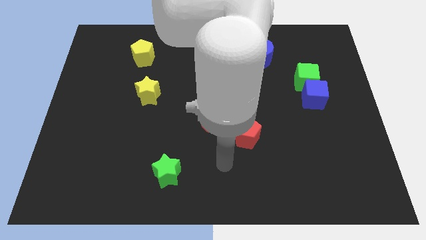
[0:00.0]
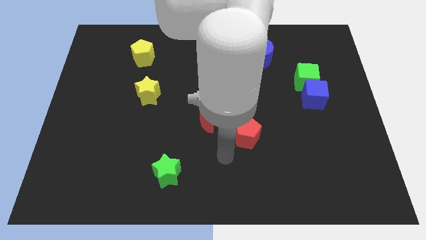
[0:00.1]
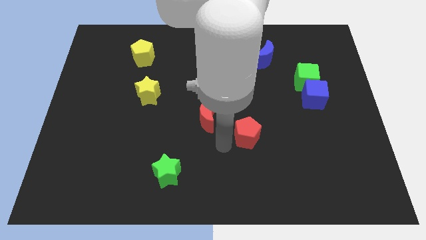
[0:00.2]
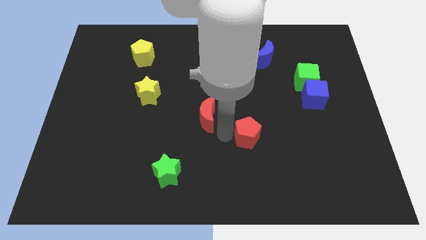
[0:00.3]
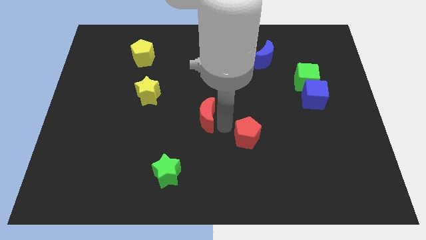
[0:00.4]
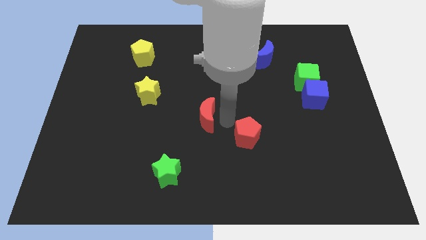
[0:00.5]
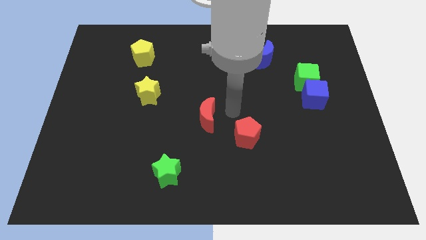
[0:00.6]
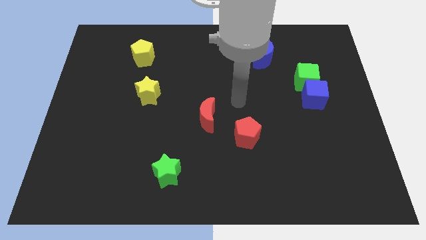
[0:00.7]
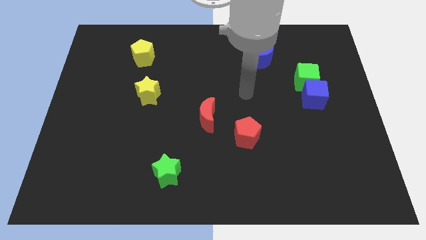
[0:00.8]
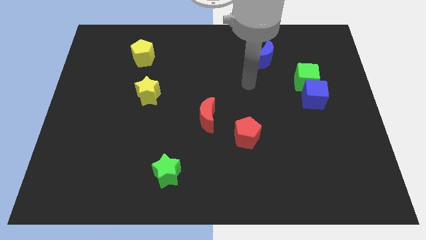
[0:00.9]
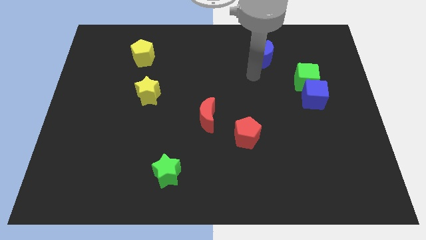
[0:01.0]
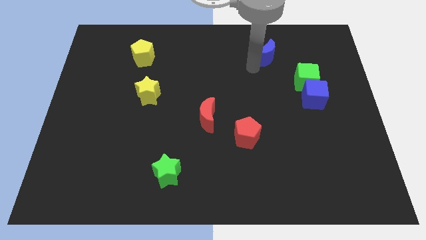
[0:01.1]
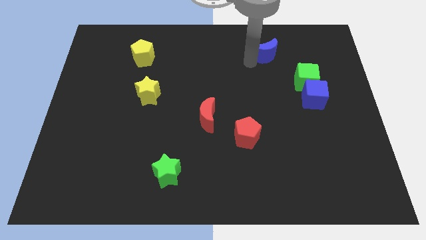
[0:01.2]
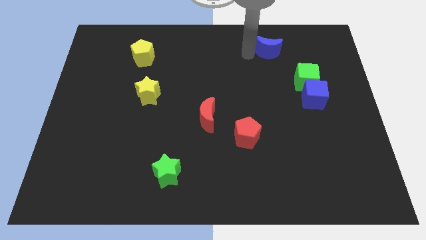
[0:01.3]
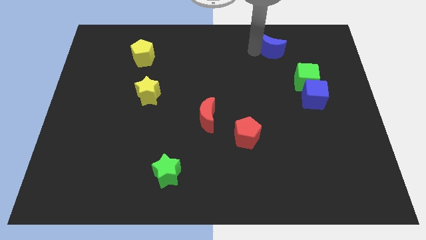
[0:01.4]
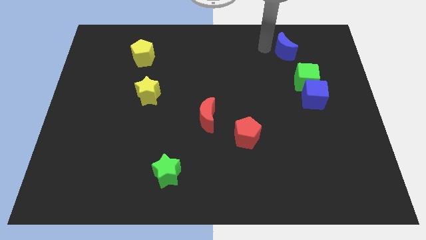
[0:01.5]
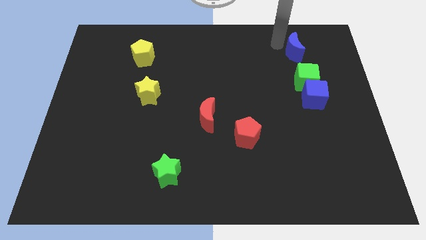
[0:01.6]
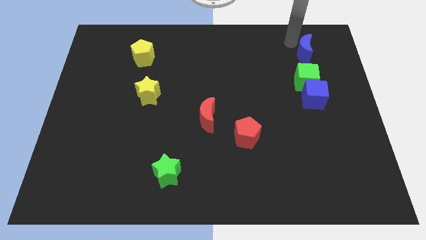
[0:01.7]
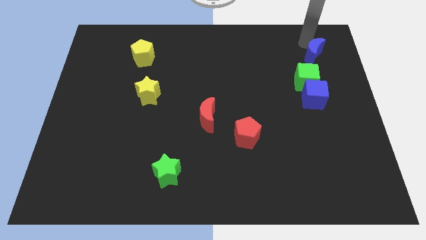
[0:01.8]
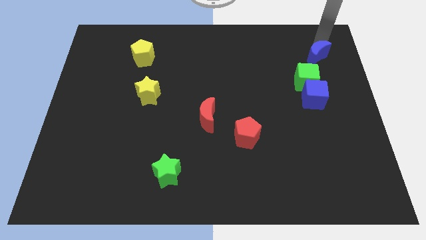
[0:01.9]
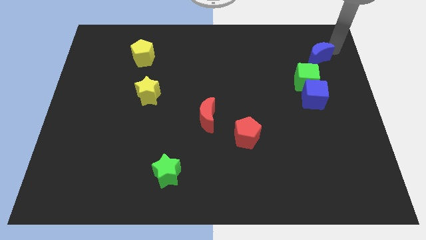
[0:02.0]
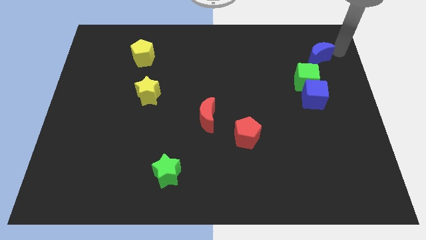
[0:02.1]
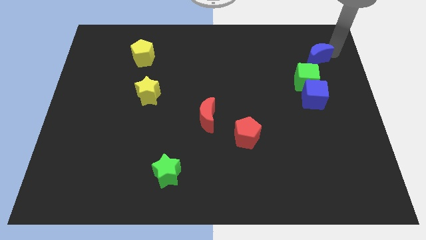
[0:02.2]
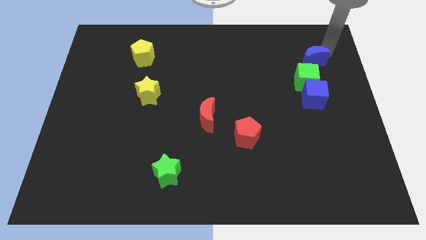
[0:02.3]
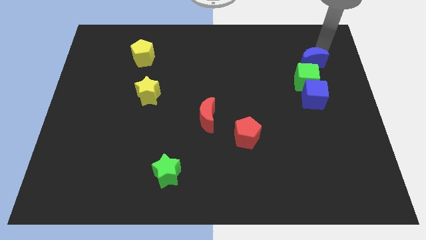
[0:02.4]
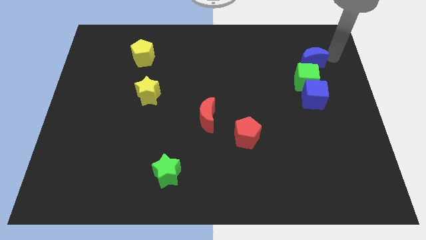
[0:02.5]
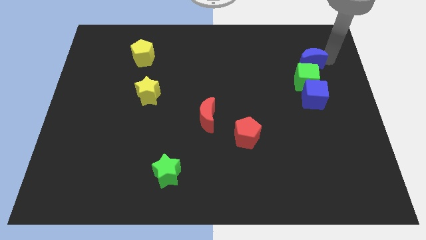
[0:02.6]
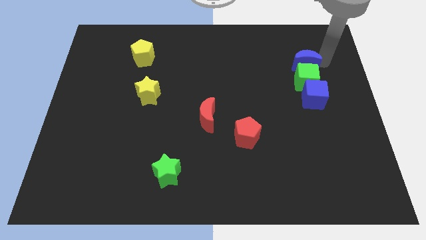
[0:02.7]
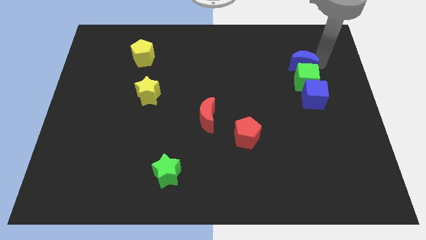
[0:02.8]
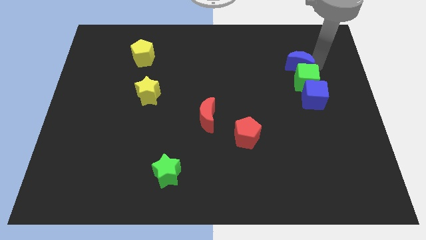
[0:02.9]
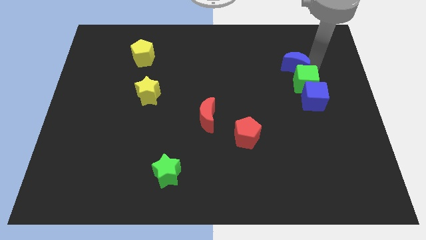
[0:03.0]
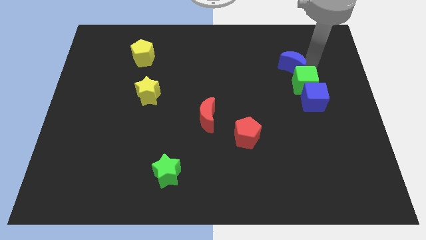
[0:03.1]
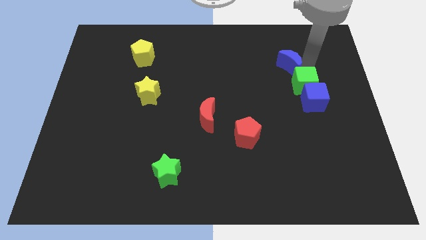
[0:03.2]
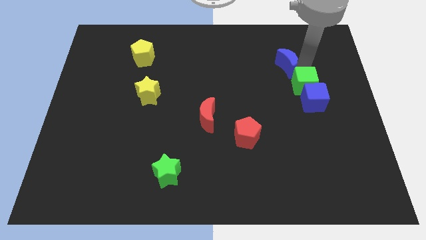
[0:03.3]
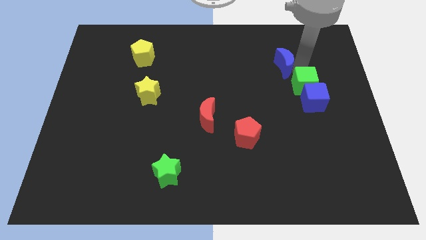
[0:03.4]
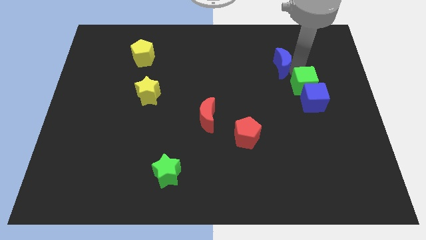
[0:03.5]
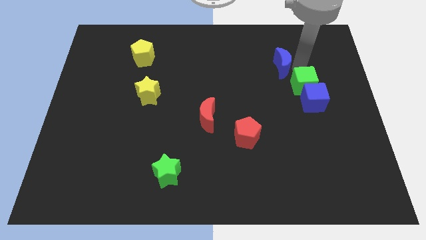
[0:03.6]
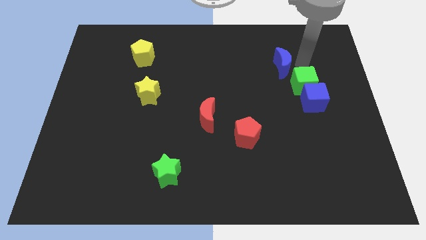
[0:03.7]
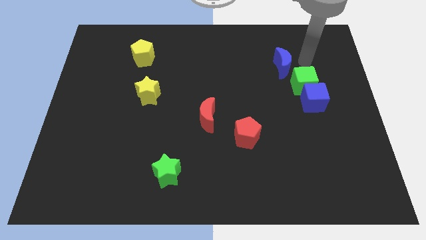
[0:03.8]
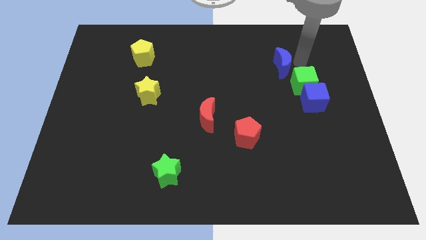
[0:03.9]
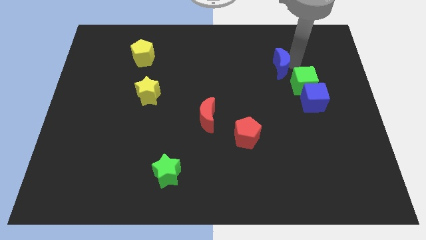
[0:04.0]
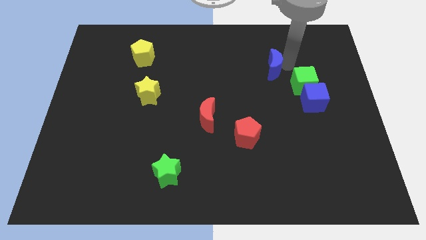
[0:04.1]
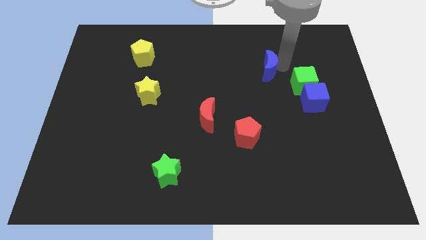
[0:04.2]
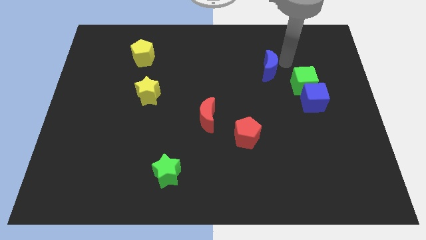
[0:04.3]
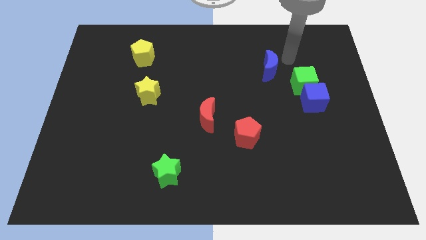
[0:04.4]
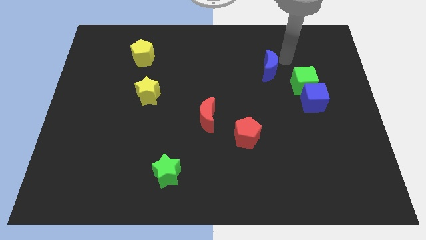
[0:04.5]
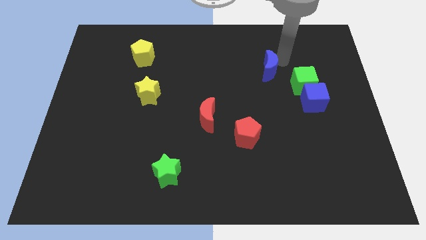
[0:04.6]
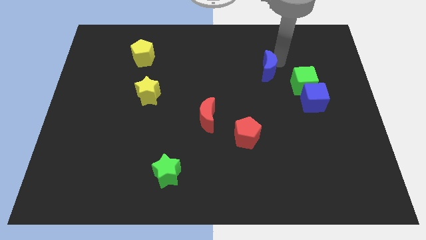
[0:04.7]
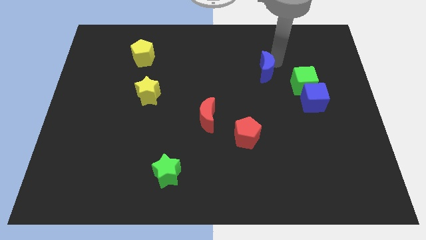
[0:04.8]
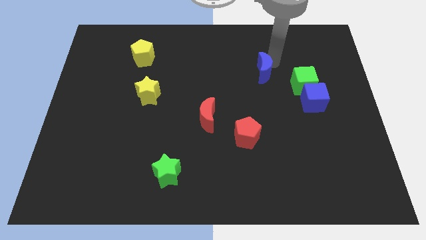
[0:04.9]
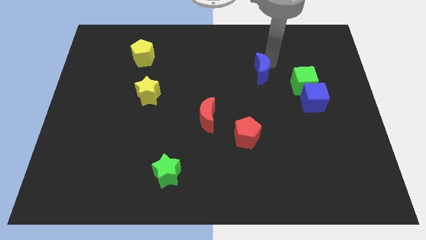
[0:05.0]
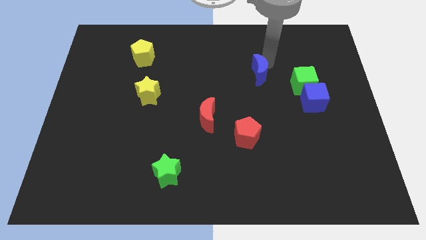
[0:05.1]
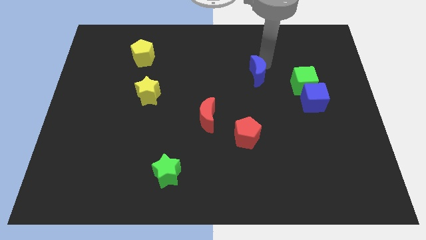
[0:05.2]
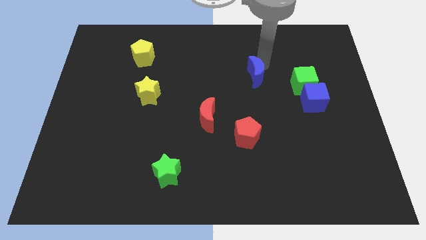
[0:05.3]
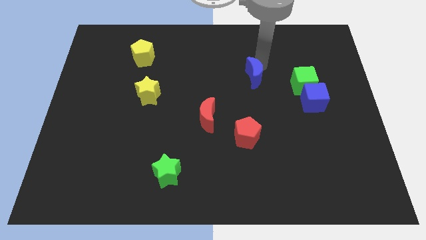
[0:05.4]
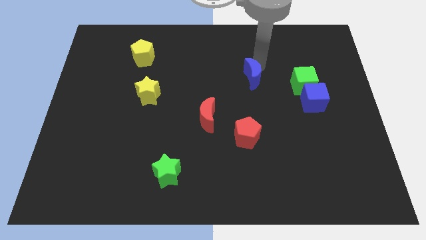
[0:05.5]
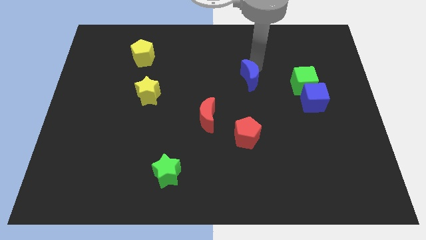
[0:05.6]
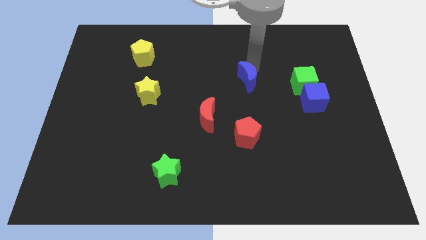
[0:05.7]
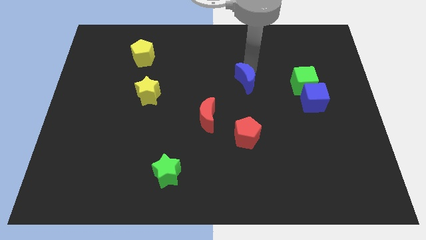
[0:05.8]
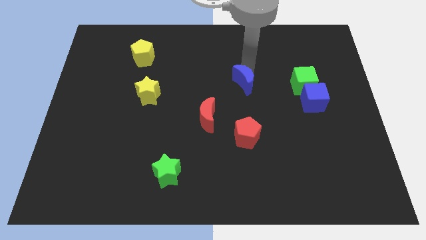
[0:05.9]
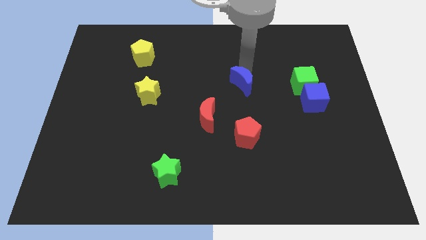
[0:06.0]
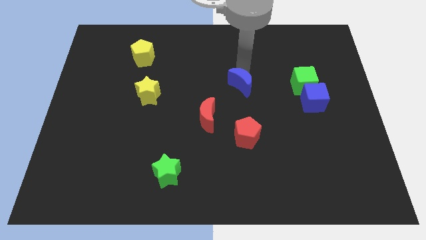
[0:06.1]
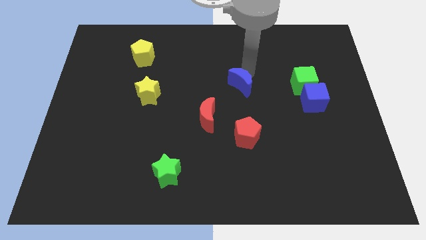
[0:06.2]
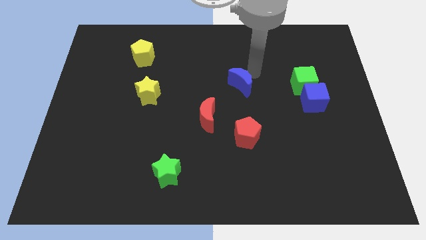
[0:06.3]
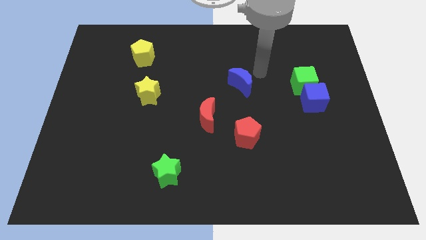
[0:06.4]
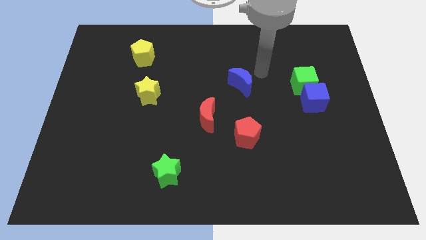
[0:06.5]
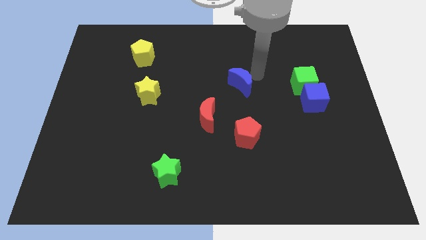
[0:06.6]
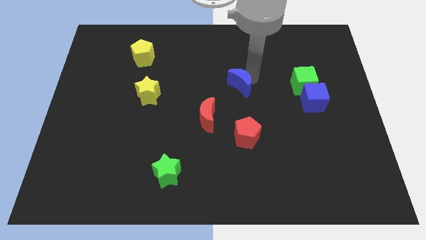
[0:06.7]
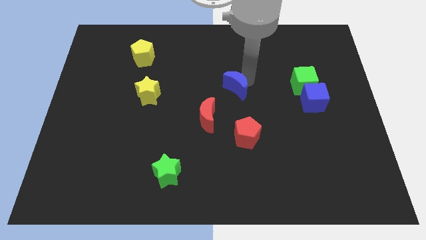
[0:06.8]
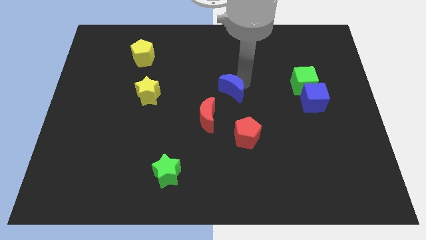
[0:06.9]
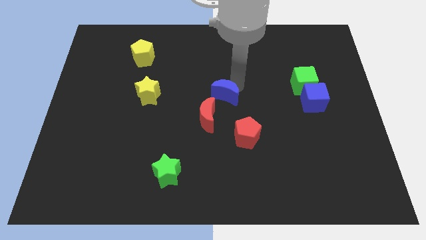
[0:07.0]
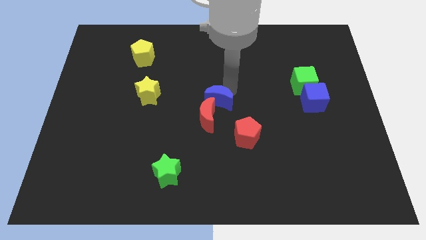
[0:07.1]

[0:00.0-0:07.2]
move the blue moon towards the red moon

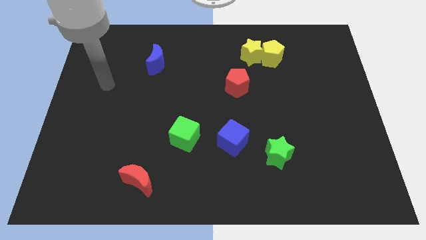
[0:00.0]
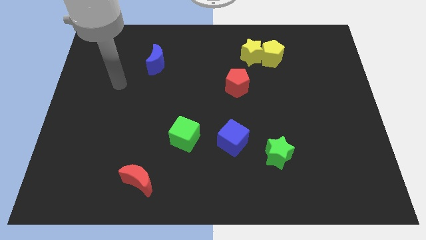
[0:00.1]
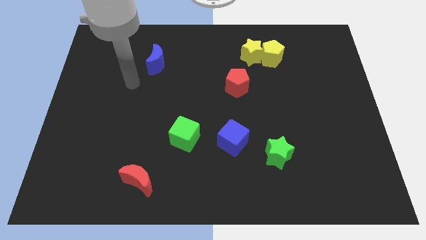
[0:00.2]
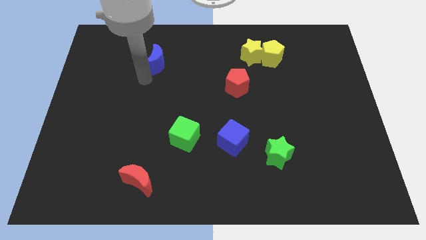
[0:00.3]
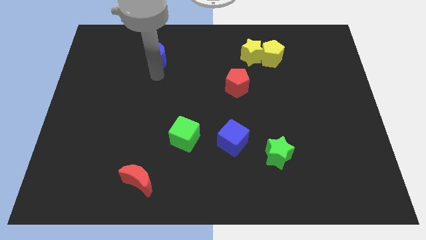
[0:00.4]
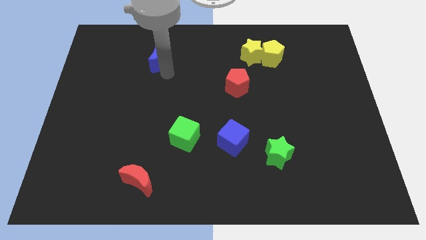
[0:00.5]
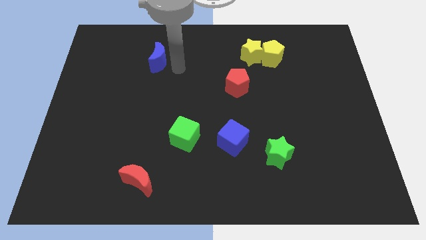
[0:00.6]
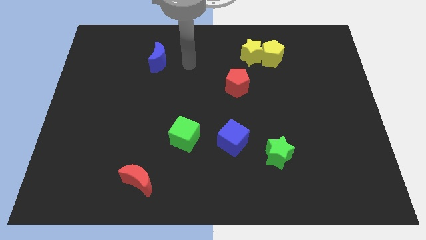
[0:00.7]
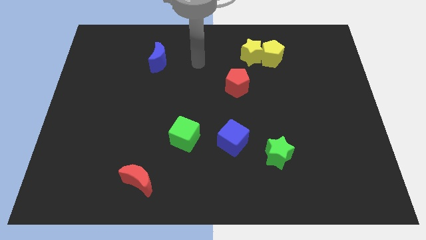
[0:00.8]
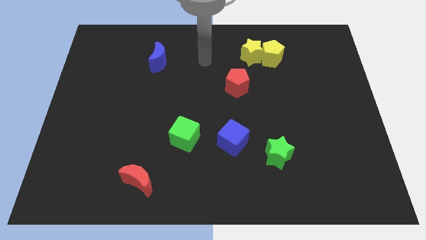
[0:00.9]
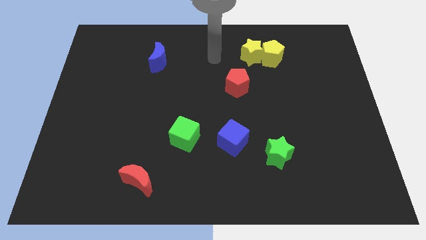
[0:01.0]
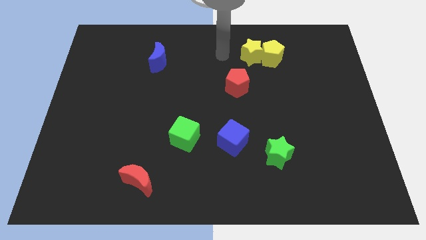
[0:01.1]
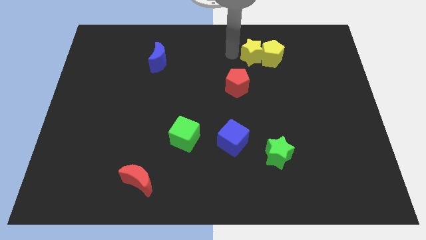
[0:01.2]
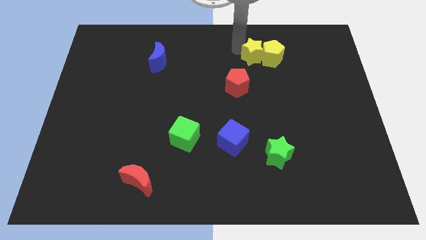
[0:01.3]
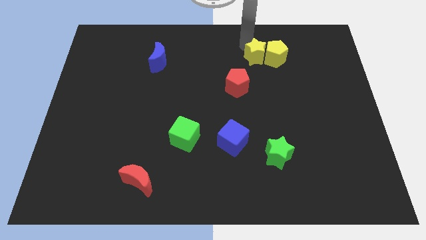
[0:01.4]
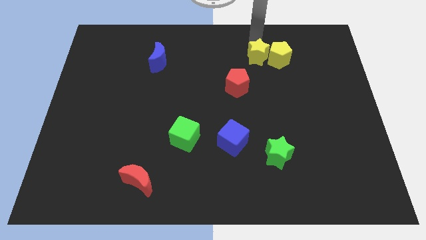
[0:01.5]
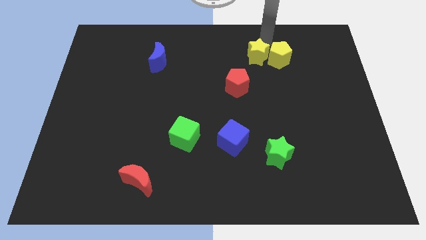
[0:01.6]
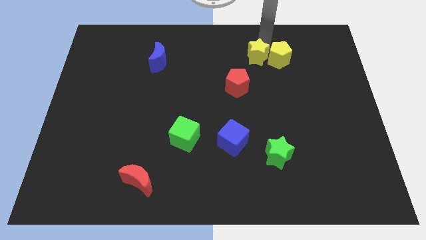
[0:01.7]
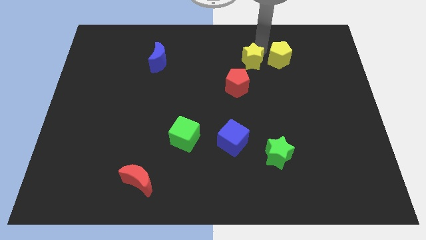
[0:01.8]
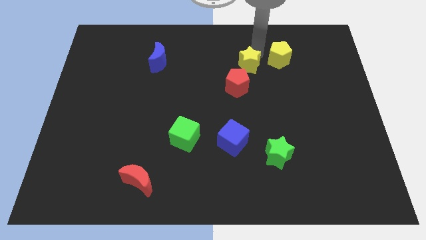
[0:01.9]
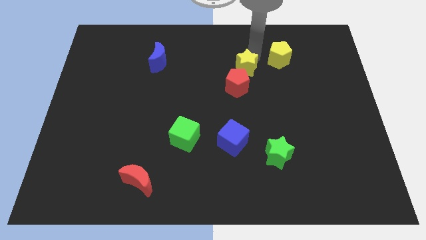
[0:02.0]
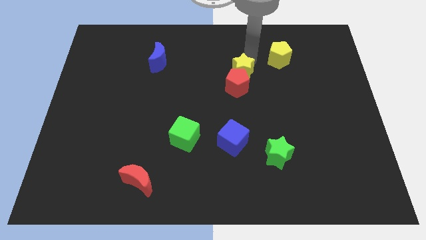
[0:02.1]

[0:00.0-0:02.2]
slide the yellow star to the red pentagon
